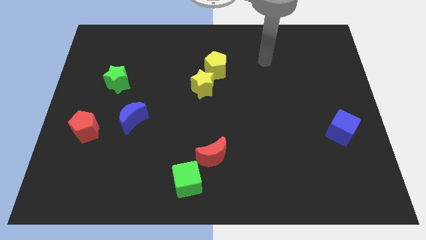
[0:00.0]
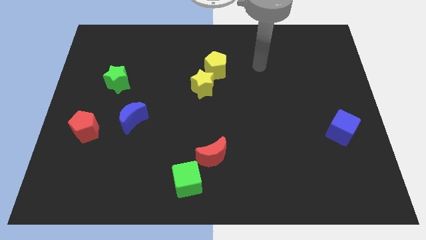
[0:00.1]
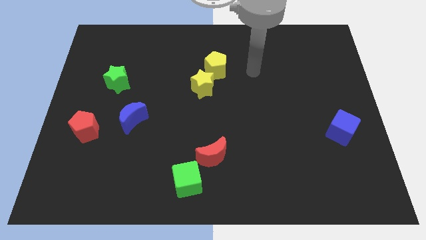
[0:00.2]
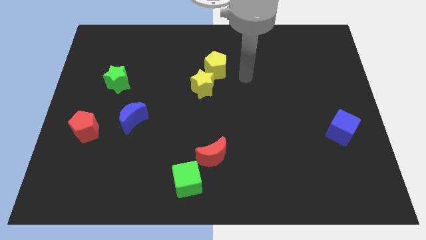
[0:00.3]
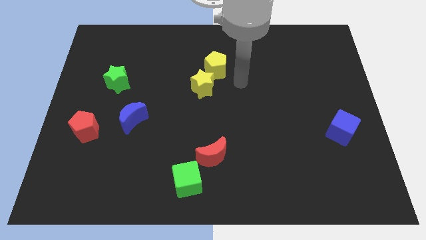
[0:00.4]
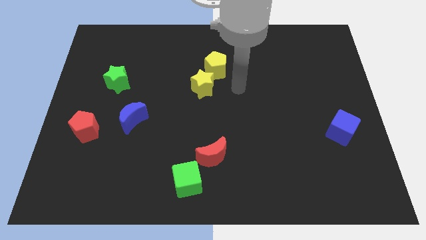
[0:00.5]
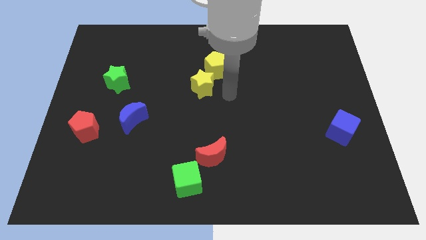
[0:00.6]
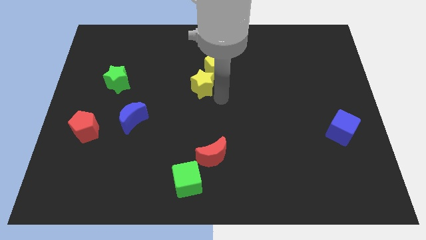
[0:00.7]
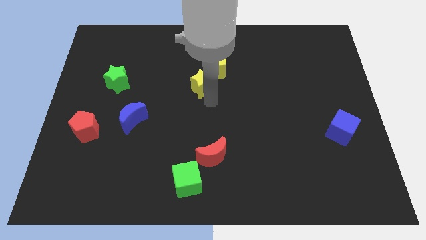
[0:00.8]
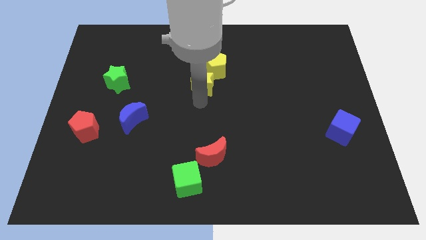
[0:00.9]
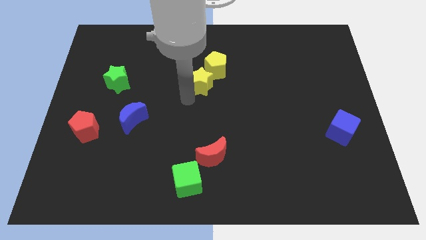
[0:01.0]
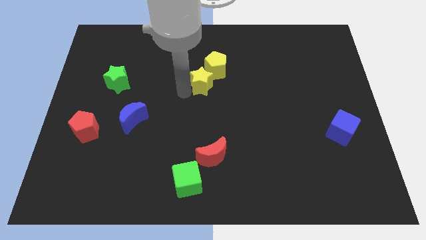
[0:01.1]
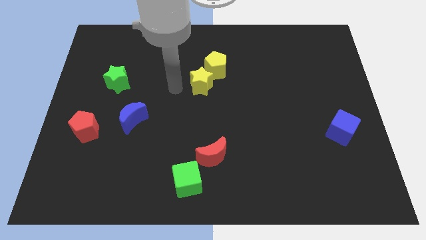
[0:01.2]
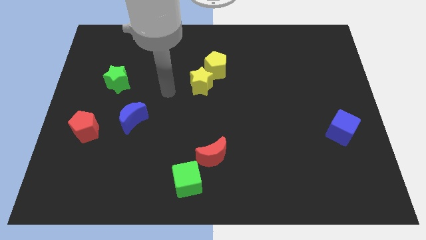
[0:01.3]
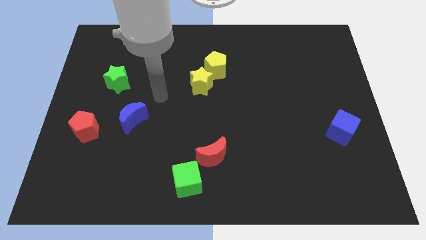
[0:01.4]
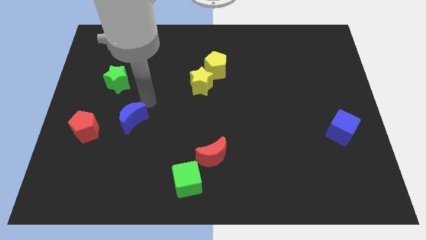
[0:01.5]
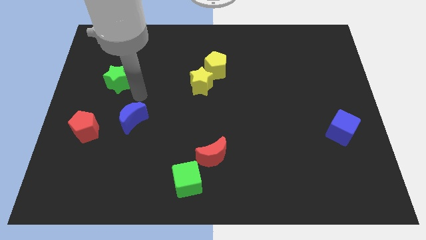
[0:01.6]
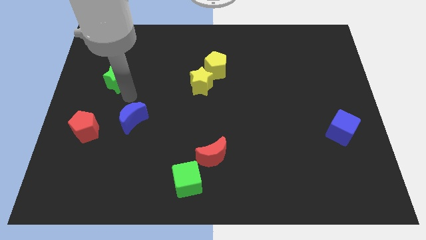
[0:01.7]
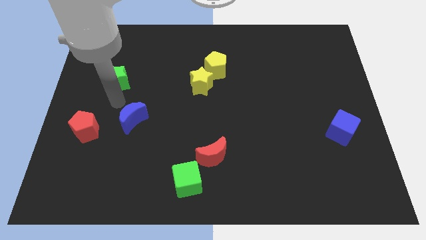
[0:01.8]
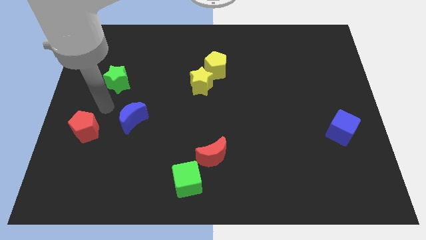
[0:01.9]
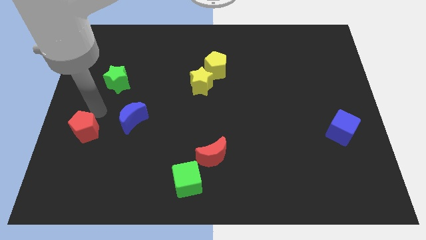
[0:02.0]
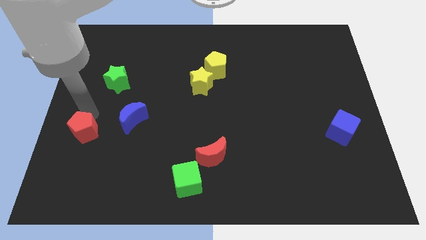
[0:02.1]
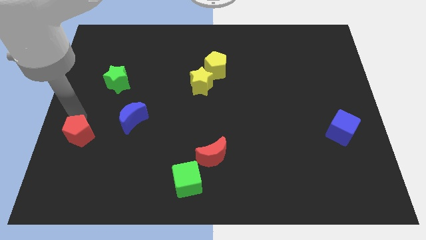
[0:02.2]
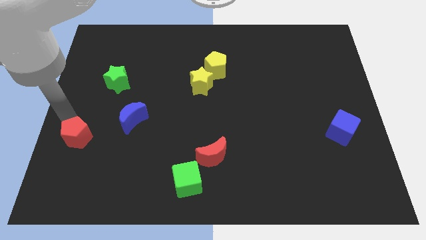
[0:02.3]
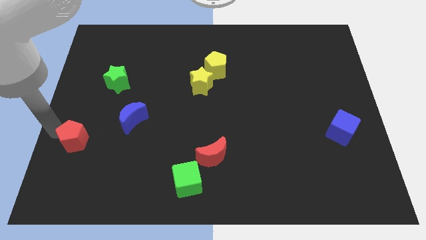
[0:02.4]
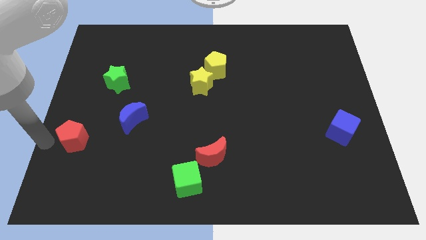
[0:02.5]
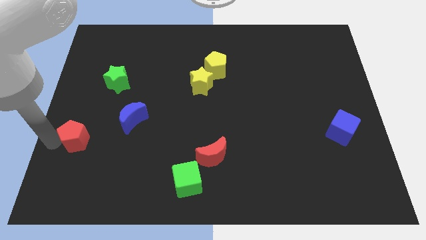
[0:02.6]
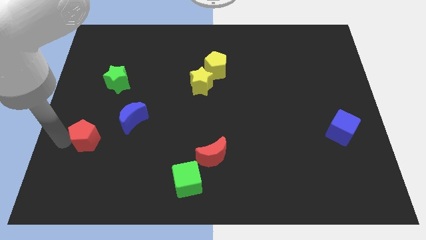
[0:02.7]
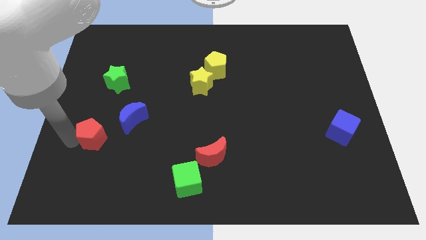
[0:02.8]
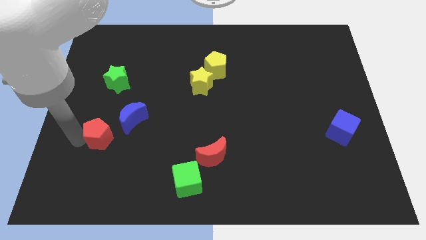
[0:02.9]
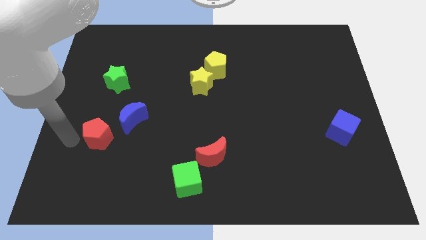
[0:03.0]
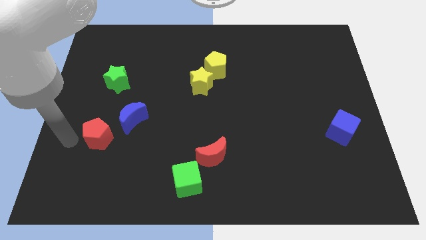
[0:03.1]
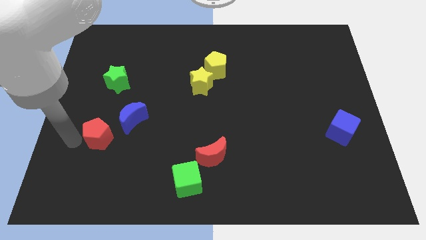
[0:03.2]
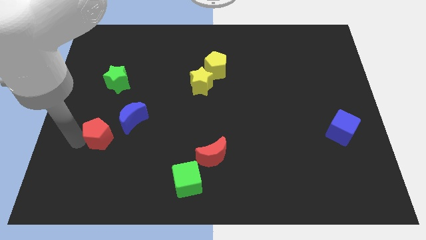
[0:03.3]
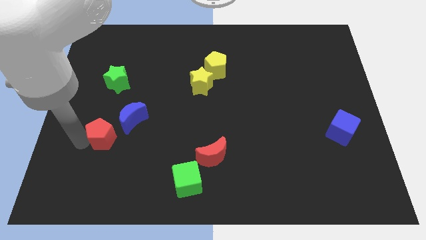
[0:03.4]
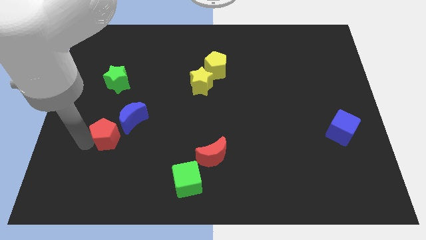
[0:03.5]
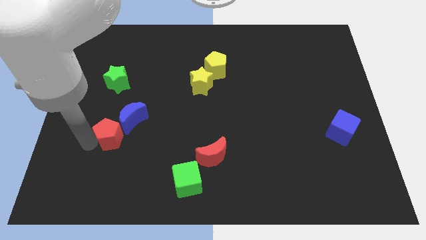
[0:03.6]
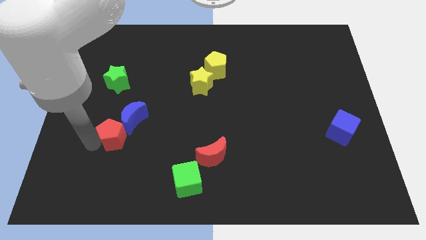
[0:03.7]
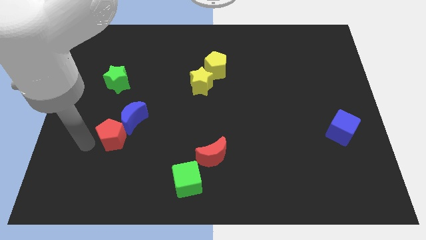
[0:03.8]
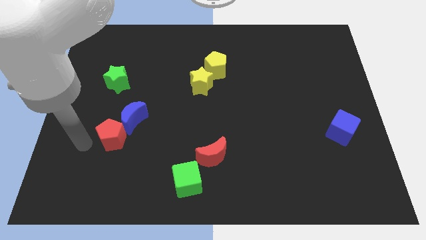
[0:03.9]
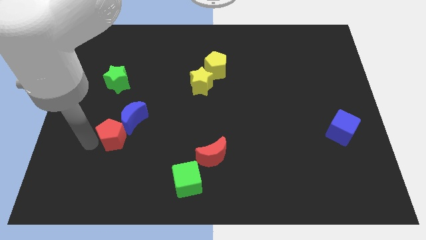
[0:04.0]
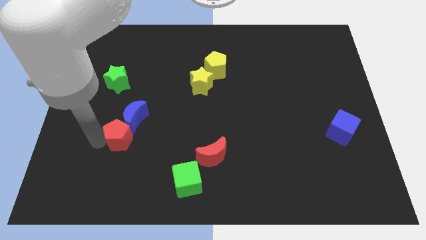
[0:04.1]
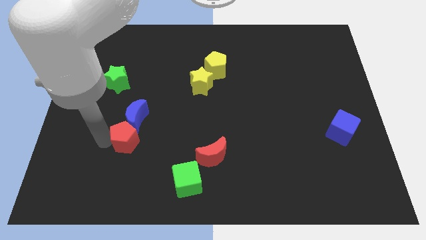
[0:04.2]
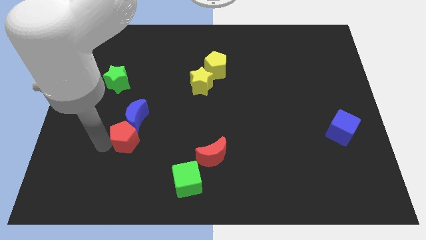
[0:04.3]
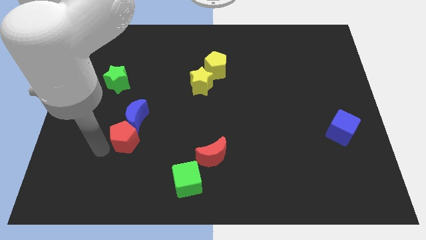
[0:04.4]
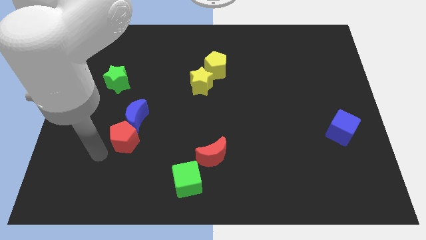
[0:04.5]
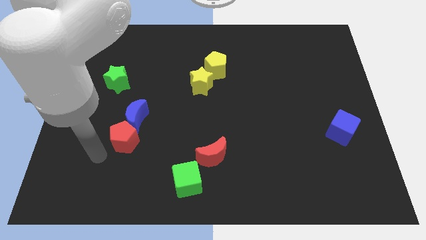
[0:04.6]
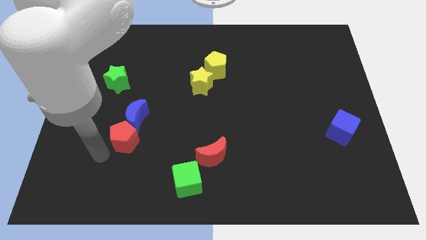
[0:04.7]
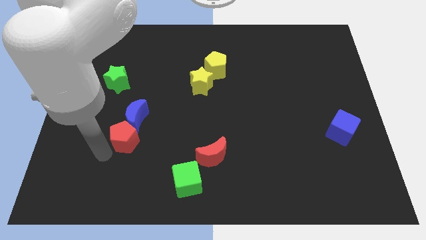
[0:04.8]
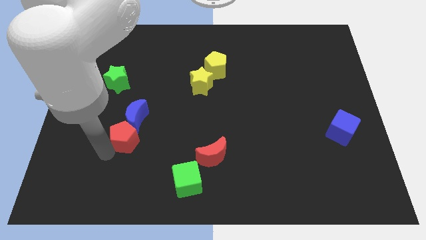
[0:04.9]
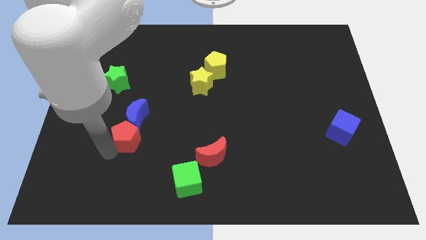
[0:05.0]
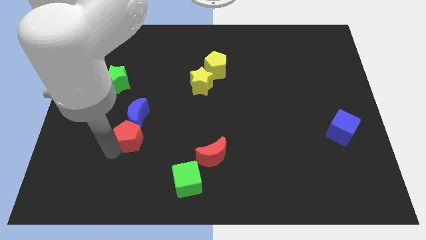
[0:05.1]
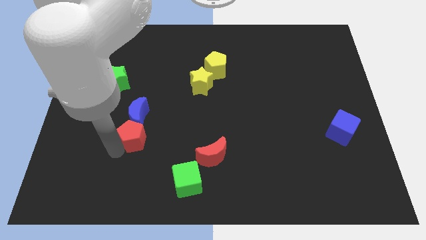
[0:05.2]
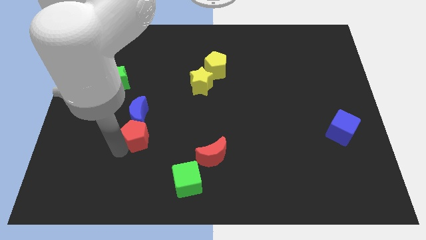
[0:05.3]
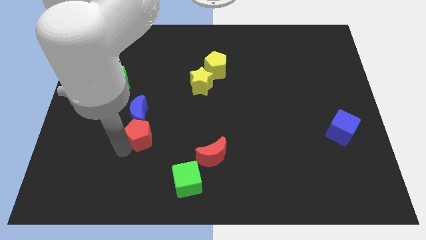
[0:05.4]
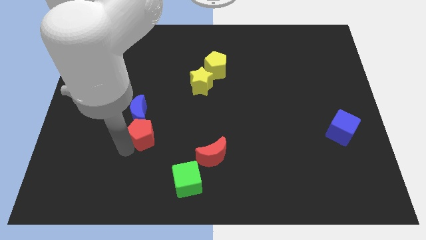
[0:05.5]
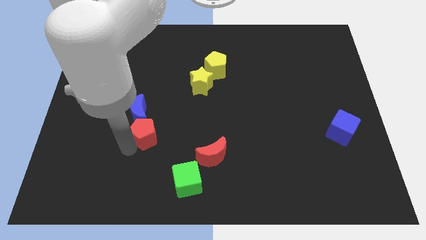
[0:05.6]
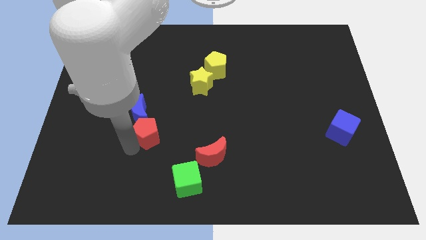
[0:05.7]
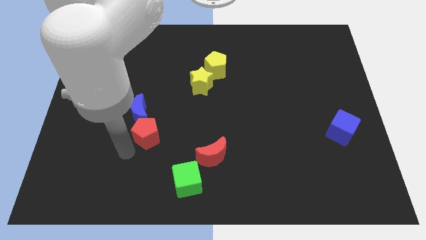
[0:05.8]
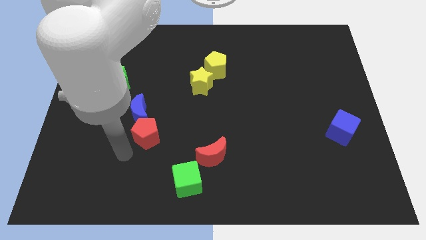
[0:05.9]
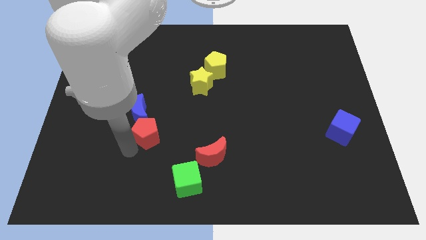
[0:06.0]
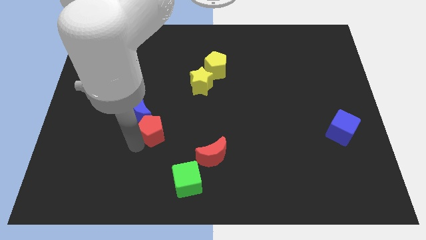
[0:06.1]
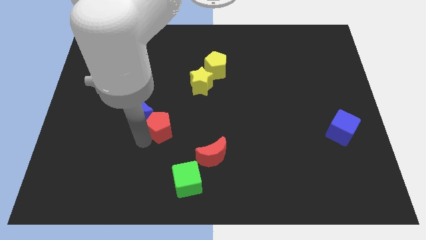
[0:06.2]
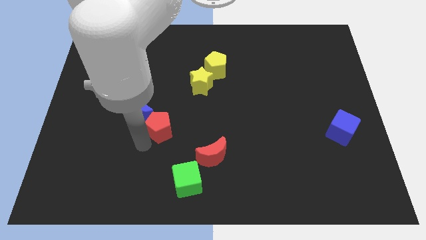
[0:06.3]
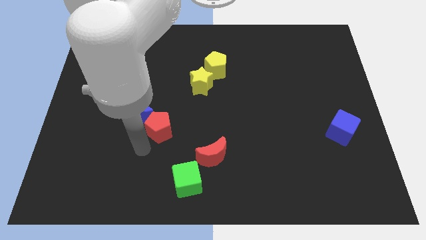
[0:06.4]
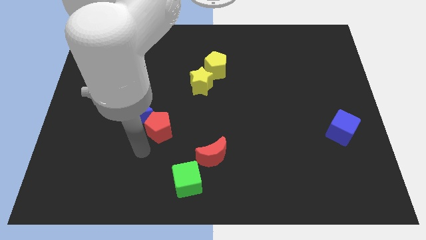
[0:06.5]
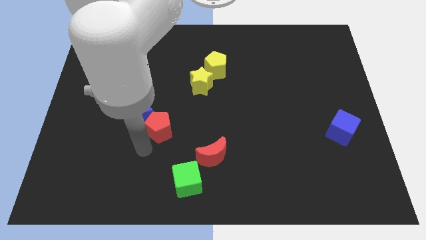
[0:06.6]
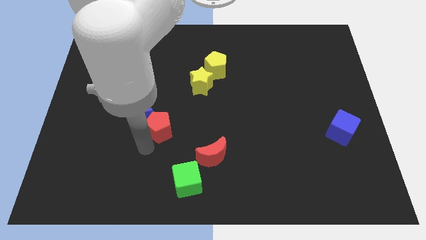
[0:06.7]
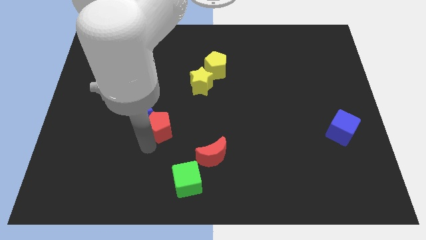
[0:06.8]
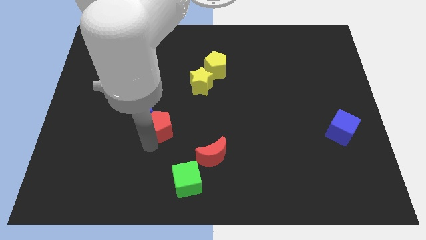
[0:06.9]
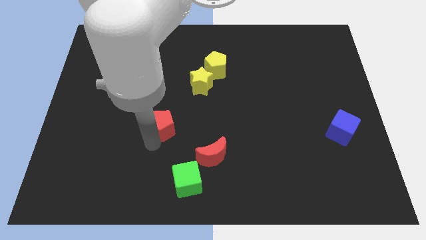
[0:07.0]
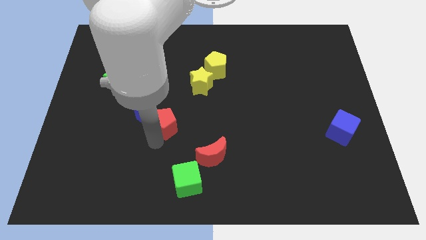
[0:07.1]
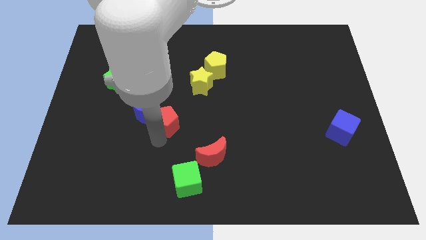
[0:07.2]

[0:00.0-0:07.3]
move the red pentagon to the center
